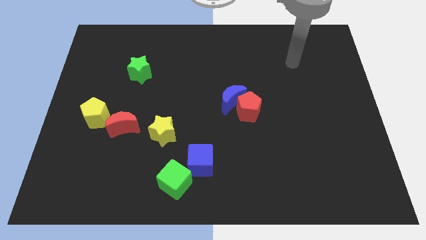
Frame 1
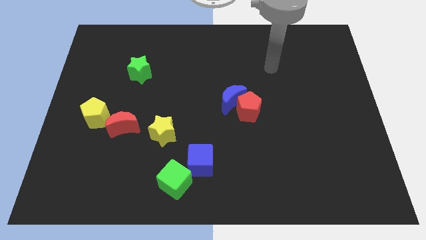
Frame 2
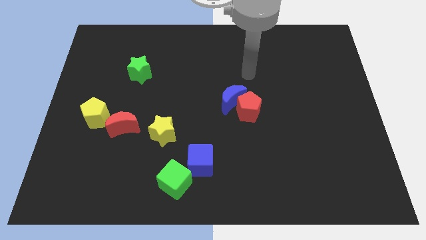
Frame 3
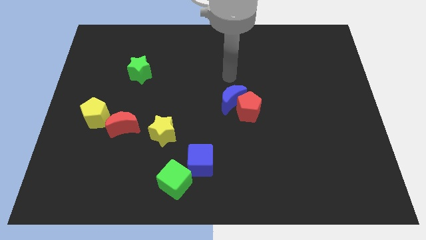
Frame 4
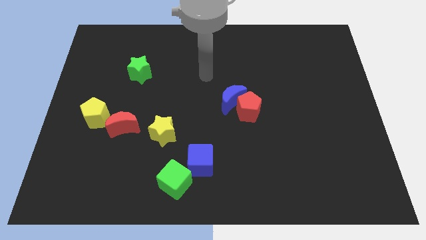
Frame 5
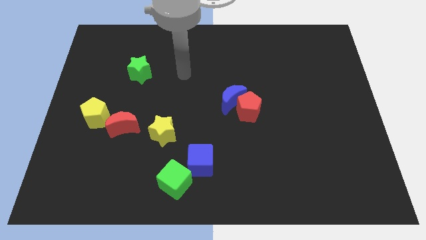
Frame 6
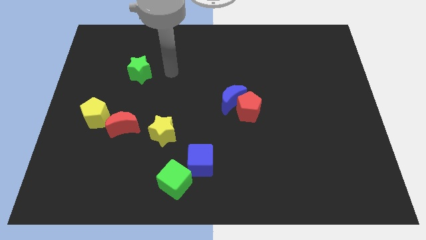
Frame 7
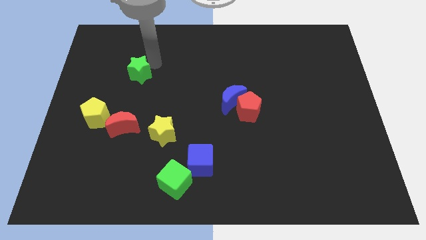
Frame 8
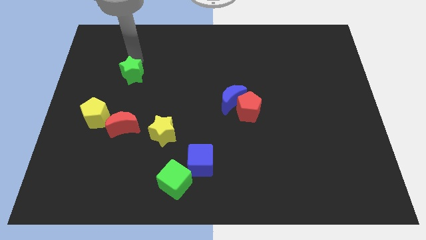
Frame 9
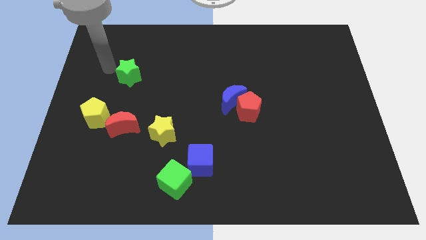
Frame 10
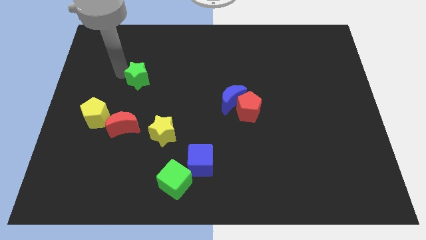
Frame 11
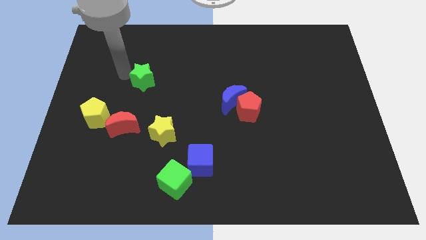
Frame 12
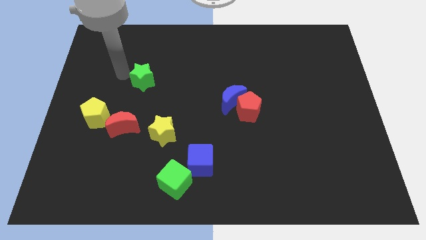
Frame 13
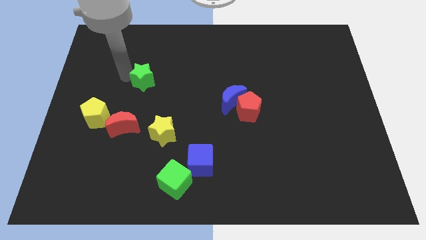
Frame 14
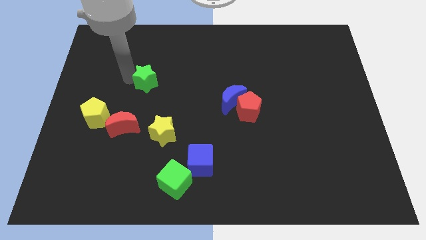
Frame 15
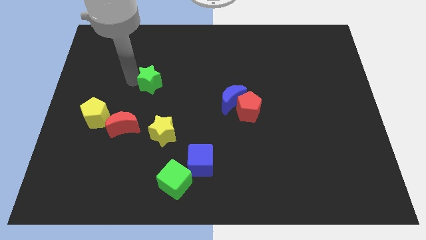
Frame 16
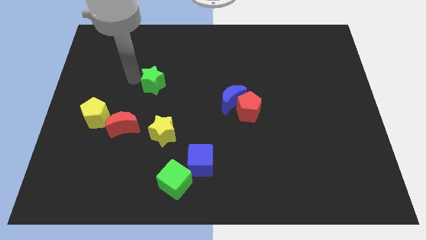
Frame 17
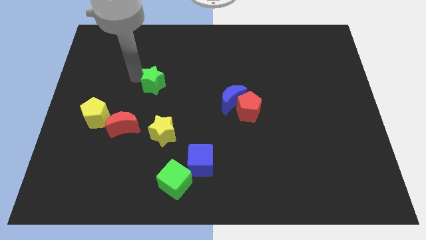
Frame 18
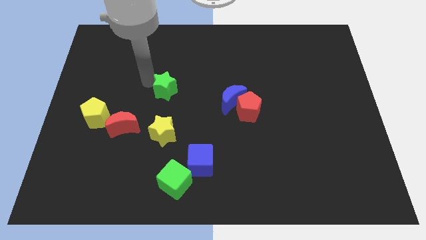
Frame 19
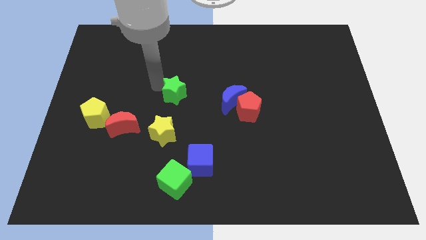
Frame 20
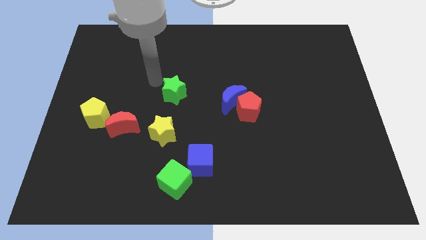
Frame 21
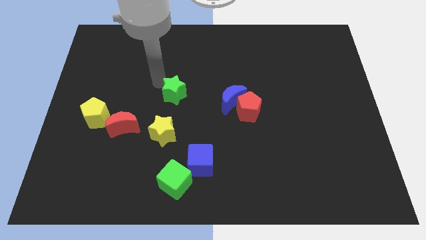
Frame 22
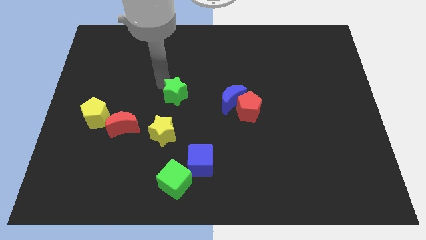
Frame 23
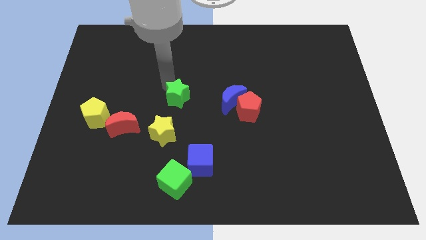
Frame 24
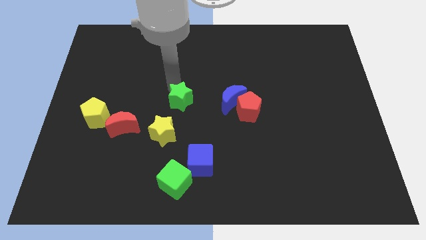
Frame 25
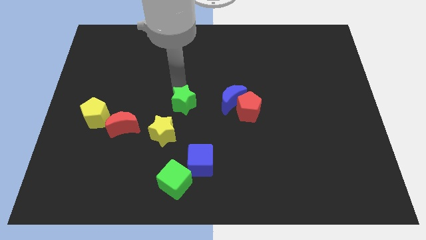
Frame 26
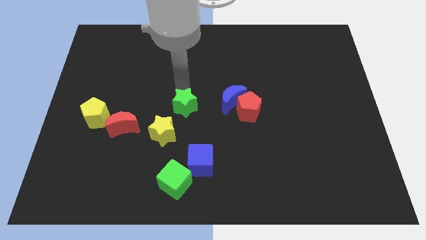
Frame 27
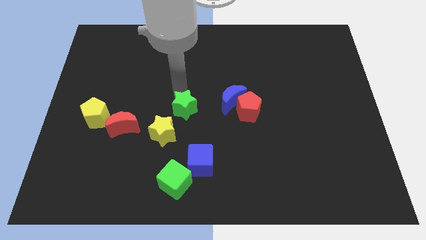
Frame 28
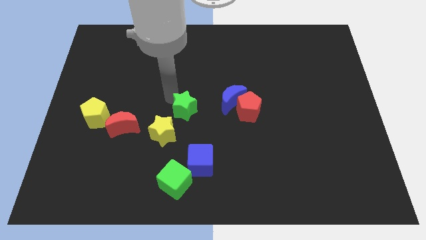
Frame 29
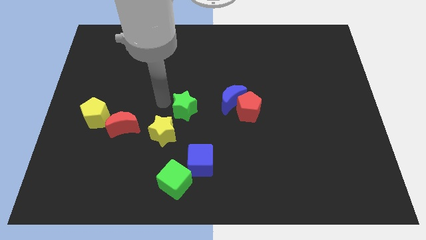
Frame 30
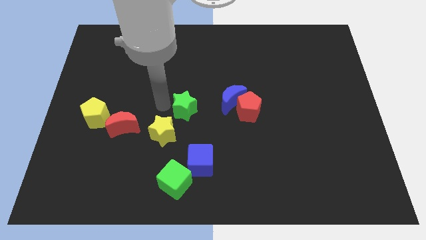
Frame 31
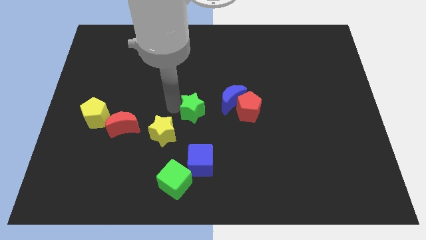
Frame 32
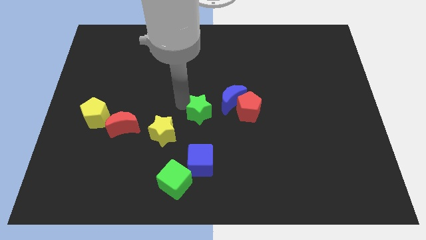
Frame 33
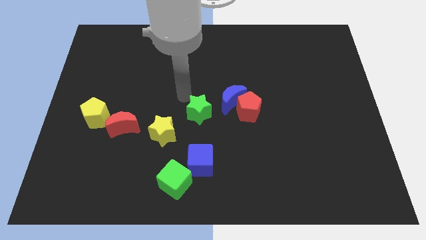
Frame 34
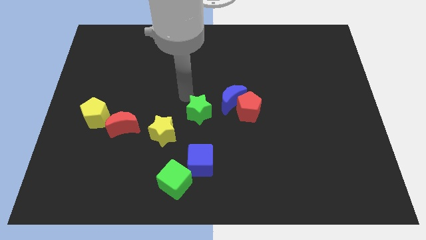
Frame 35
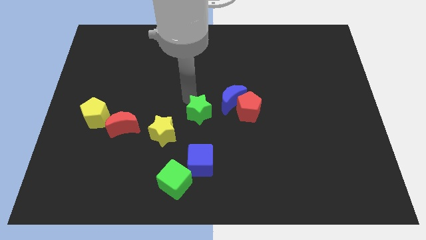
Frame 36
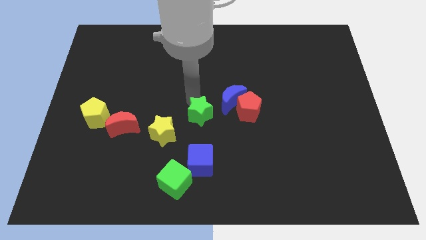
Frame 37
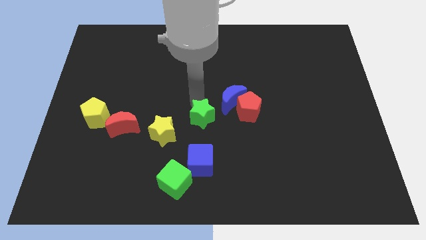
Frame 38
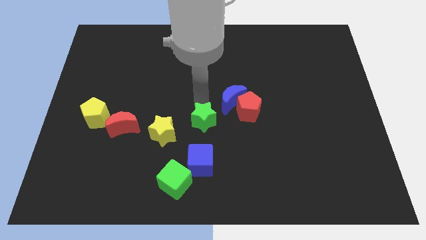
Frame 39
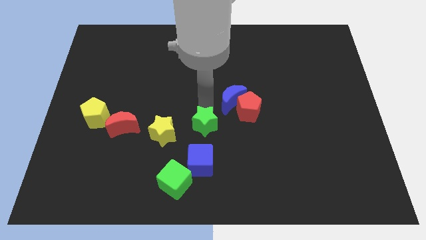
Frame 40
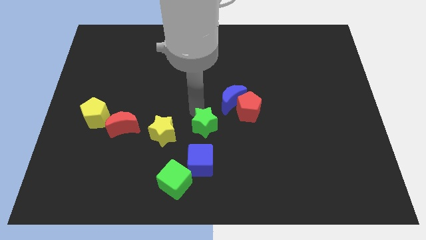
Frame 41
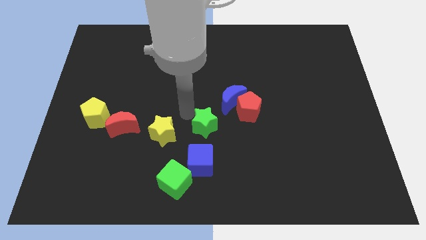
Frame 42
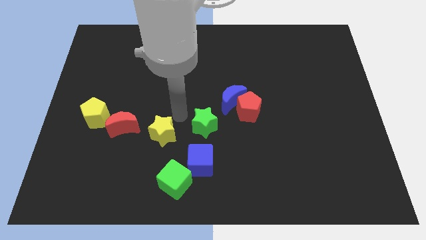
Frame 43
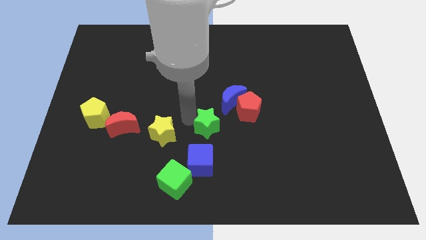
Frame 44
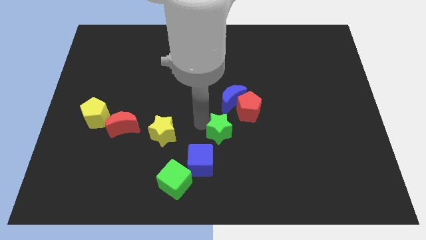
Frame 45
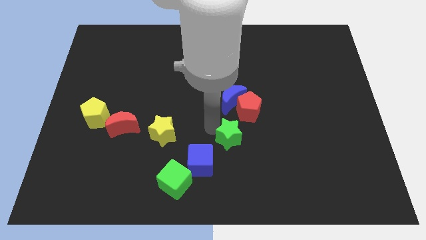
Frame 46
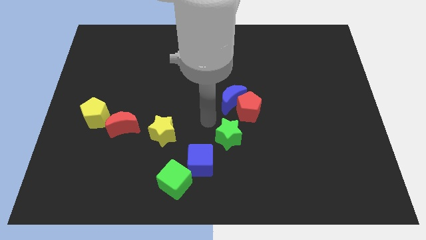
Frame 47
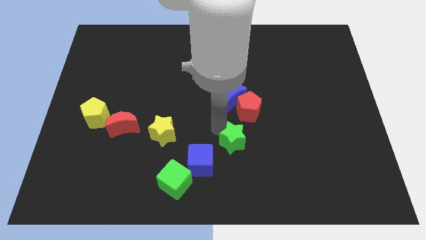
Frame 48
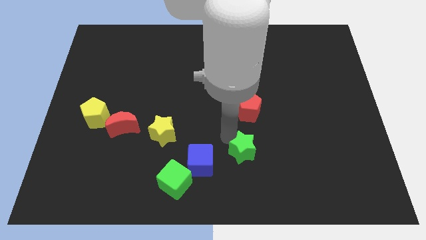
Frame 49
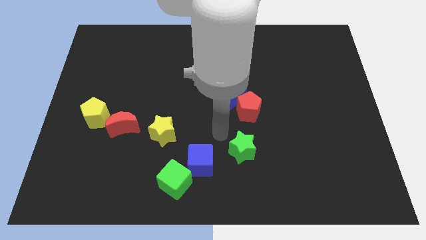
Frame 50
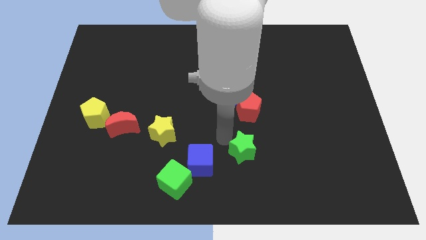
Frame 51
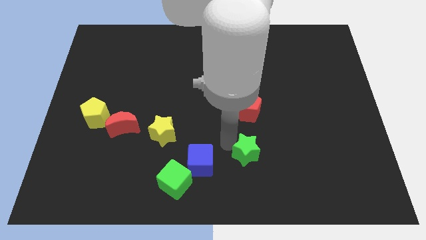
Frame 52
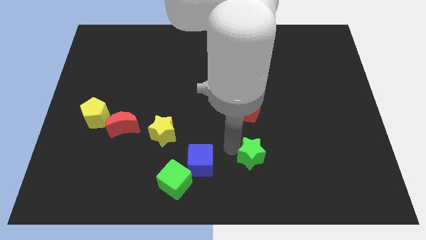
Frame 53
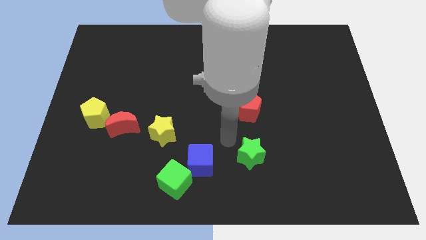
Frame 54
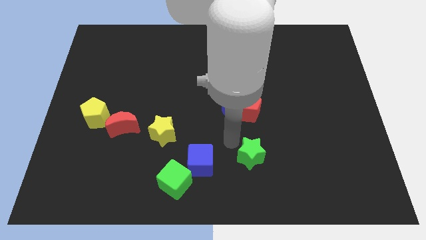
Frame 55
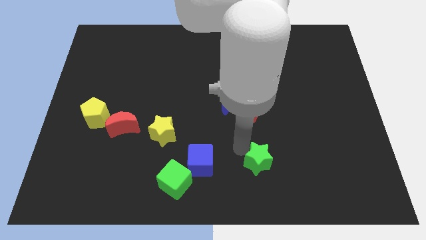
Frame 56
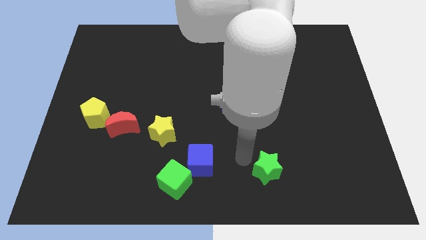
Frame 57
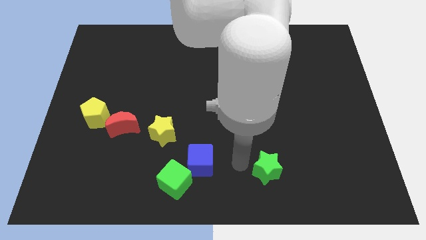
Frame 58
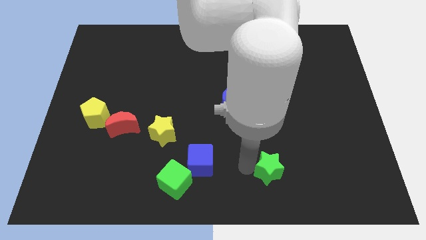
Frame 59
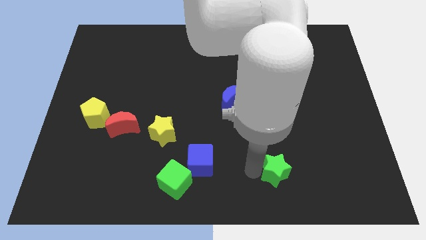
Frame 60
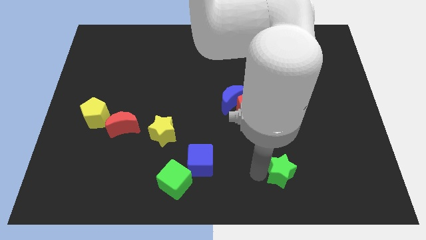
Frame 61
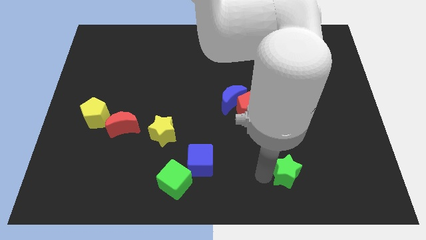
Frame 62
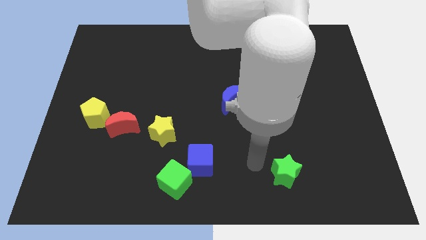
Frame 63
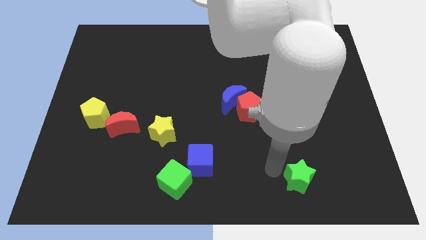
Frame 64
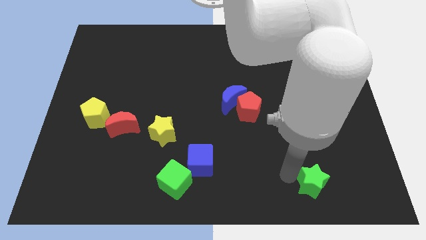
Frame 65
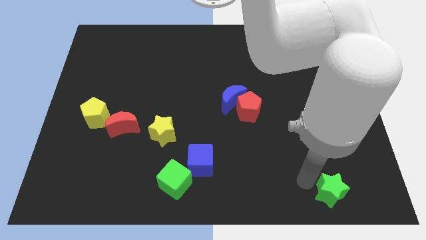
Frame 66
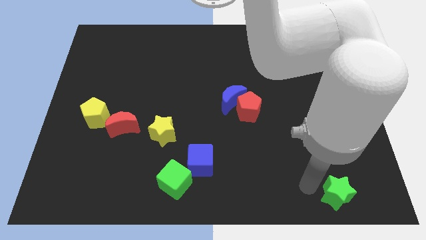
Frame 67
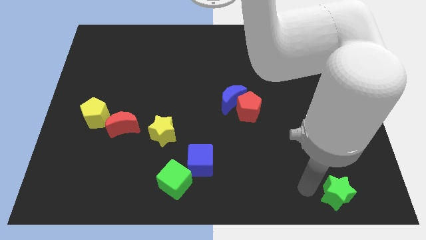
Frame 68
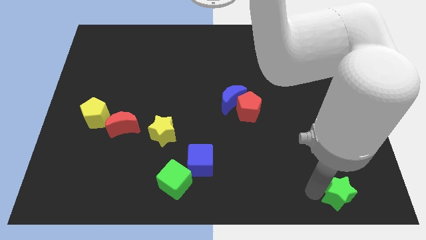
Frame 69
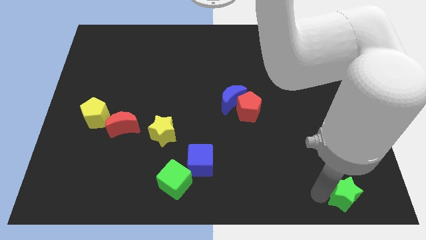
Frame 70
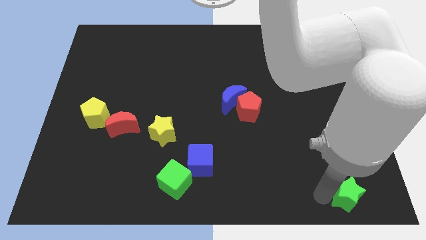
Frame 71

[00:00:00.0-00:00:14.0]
slide the green star to the bottom right corner
